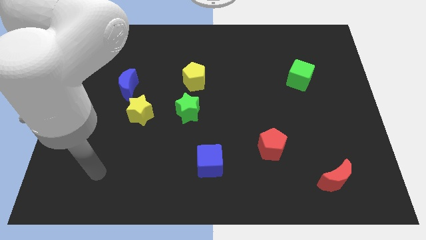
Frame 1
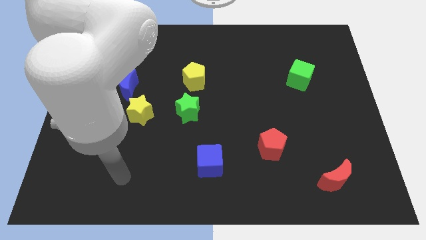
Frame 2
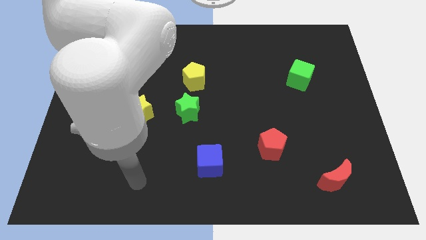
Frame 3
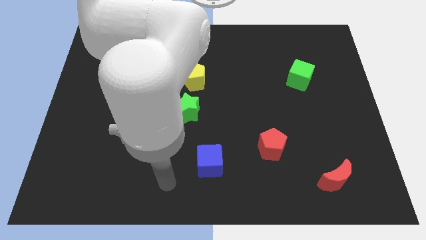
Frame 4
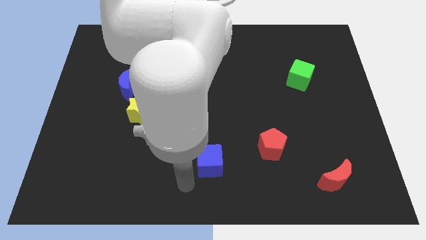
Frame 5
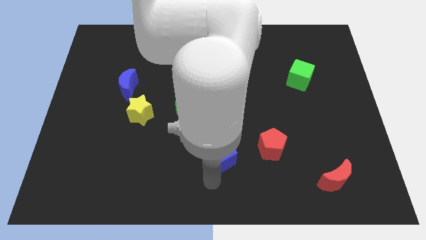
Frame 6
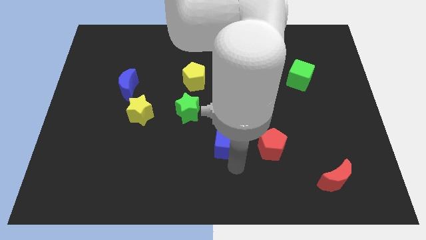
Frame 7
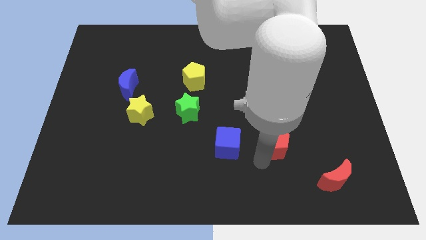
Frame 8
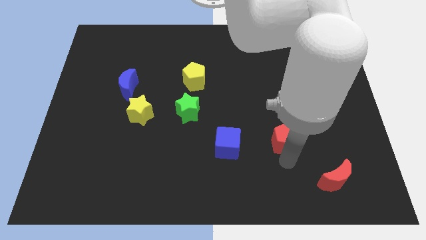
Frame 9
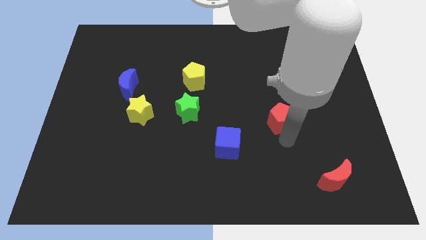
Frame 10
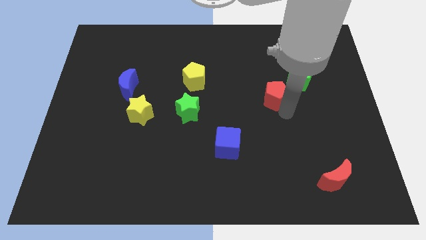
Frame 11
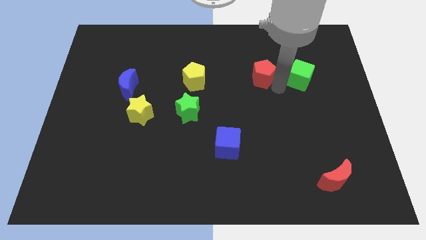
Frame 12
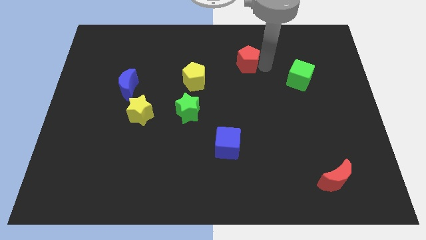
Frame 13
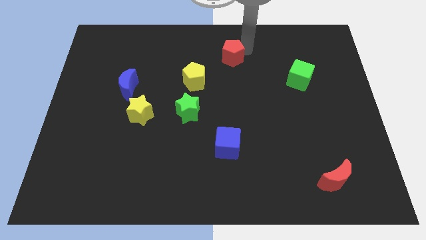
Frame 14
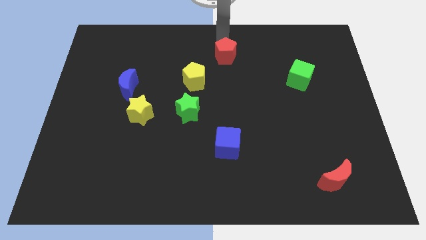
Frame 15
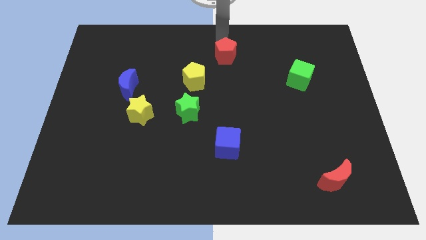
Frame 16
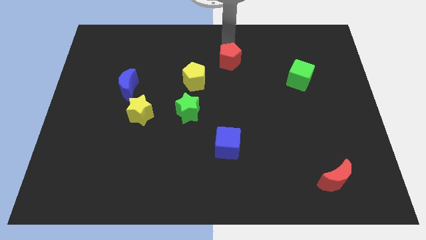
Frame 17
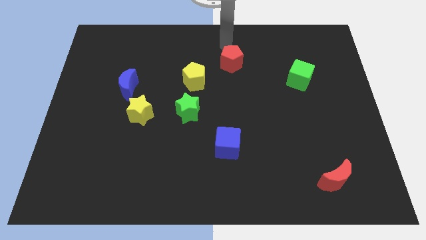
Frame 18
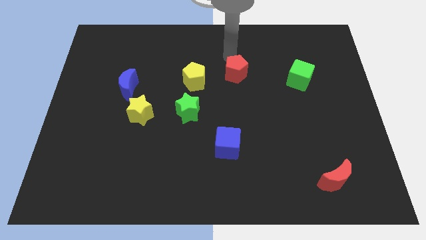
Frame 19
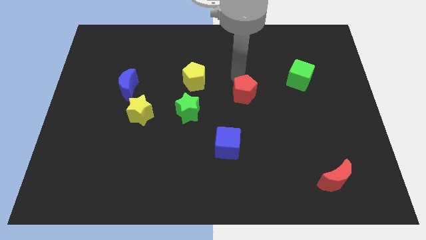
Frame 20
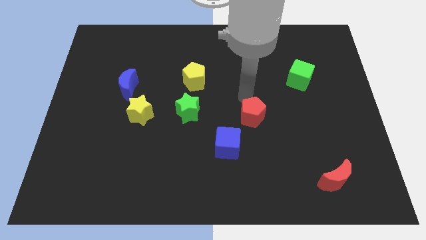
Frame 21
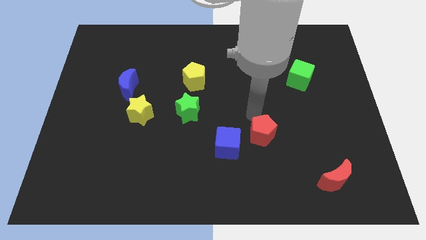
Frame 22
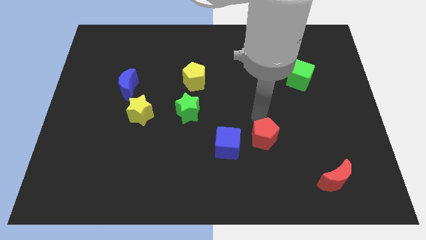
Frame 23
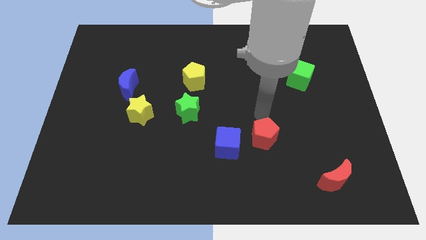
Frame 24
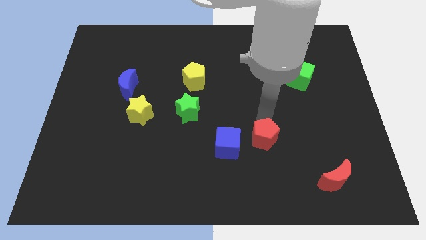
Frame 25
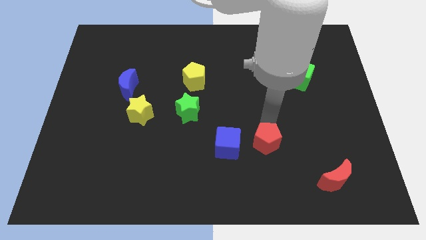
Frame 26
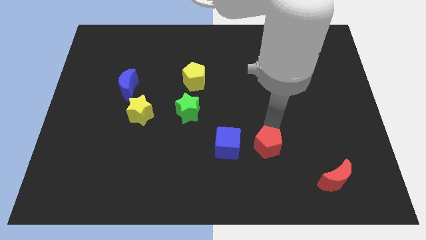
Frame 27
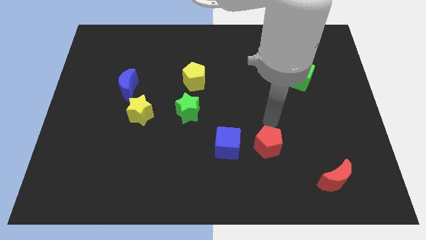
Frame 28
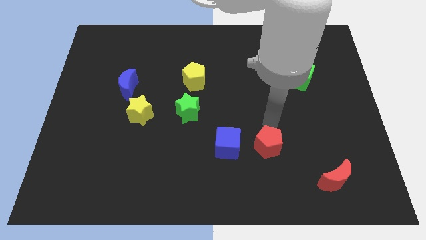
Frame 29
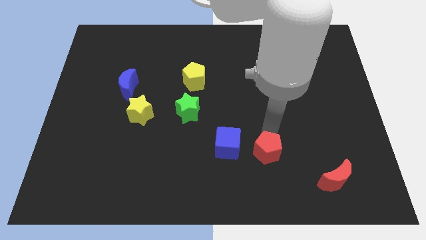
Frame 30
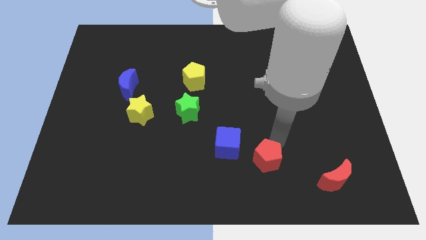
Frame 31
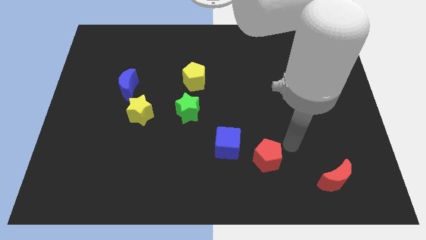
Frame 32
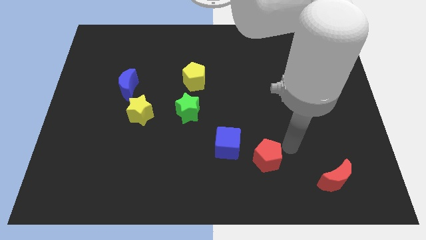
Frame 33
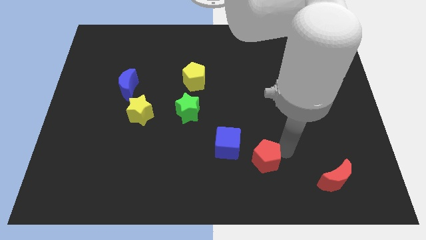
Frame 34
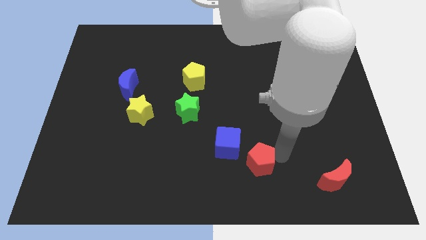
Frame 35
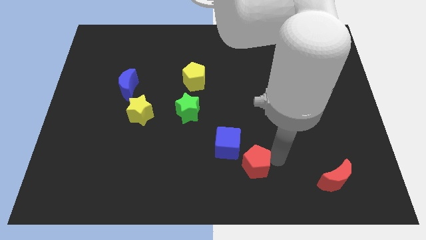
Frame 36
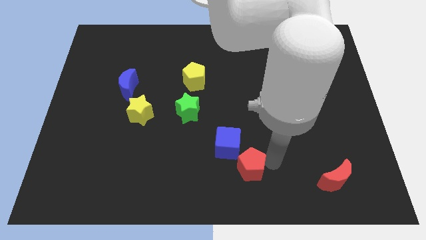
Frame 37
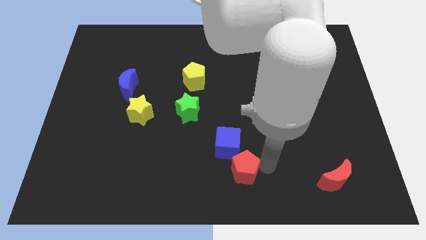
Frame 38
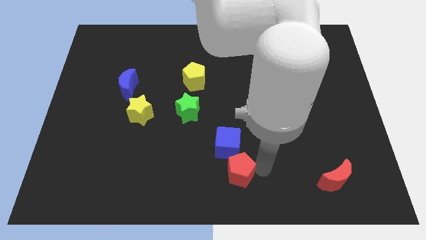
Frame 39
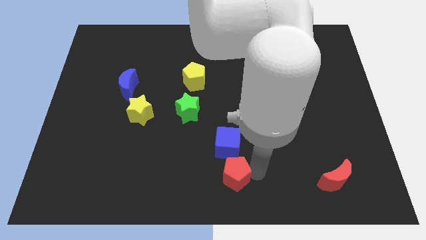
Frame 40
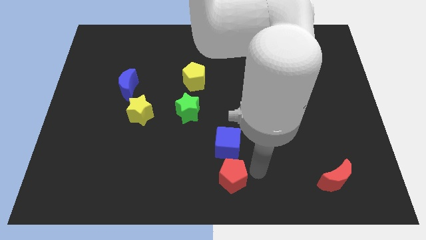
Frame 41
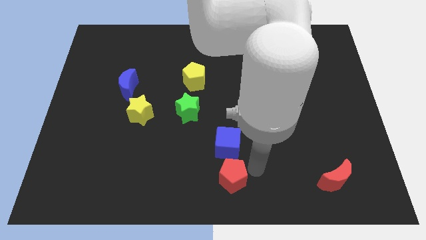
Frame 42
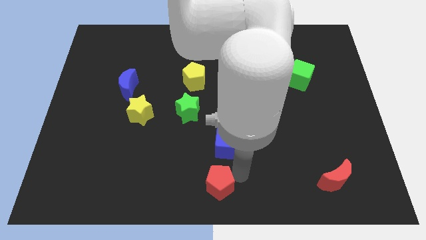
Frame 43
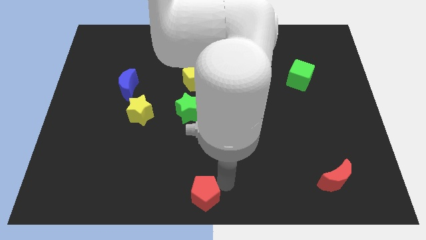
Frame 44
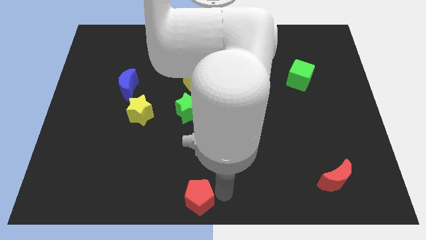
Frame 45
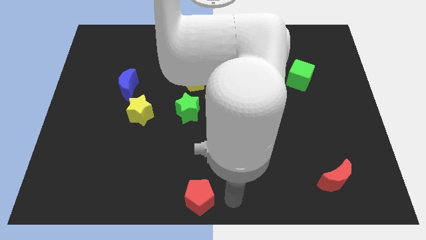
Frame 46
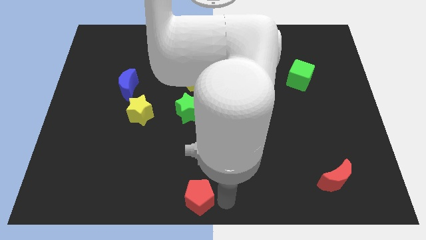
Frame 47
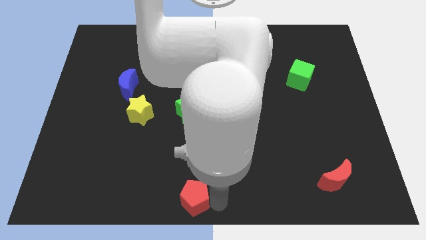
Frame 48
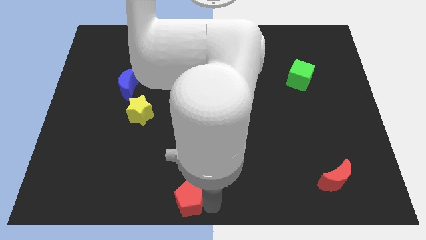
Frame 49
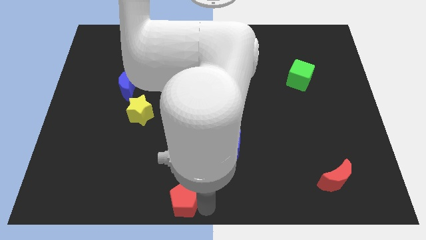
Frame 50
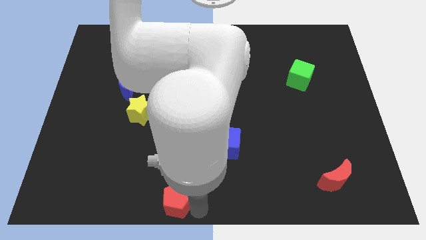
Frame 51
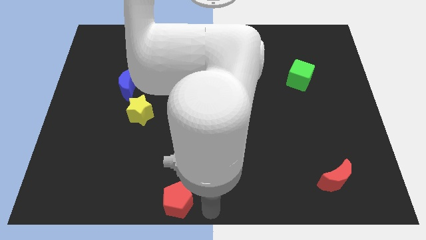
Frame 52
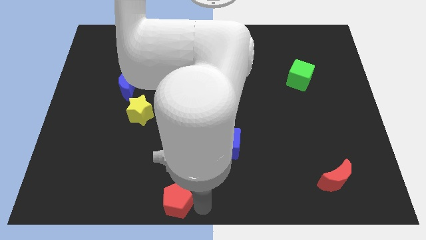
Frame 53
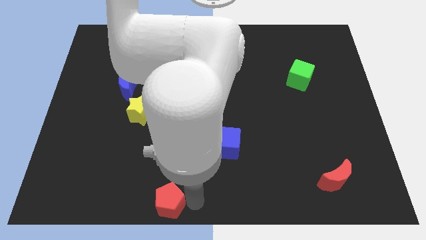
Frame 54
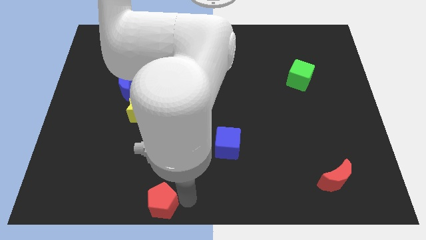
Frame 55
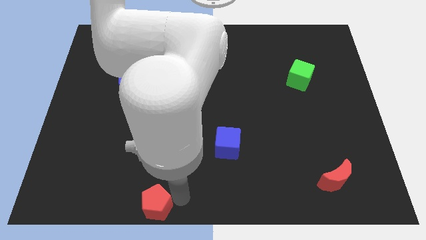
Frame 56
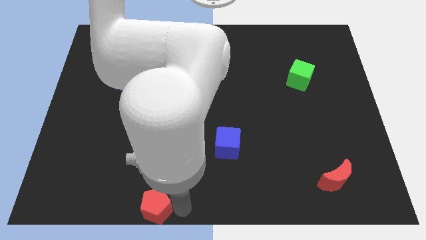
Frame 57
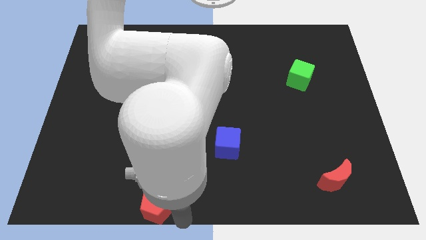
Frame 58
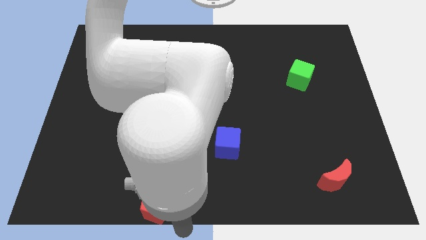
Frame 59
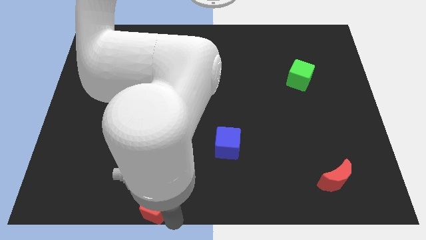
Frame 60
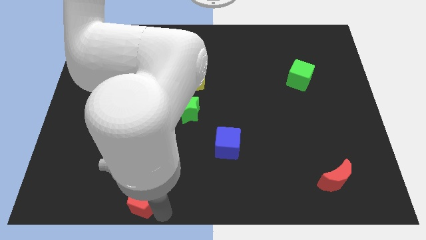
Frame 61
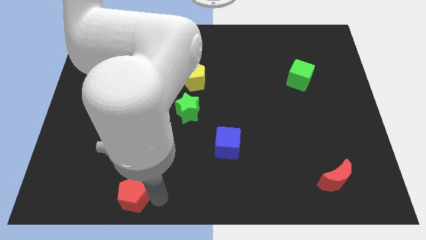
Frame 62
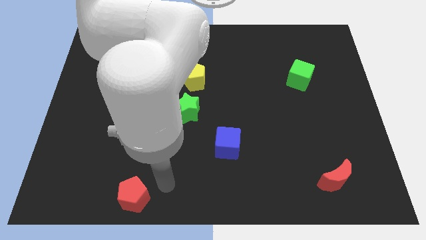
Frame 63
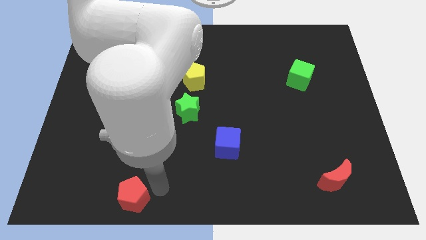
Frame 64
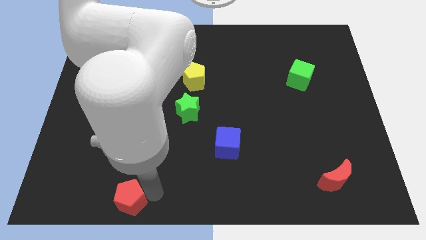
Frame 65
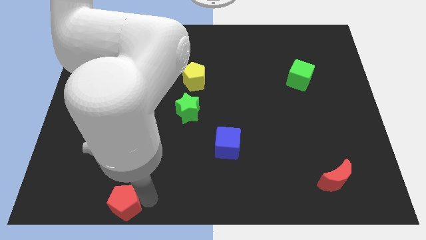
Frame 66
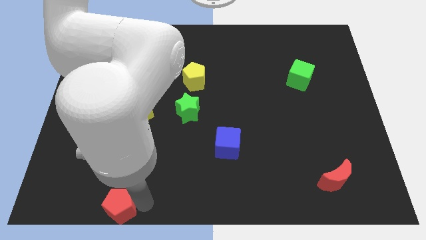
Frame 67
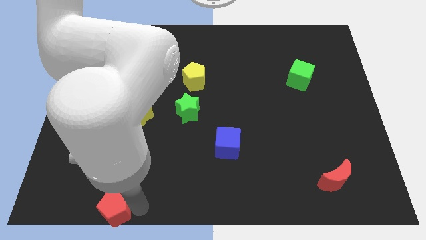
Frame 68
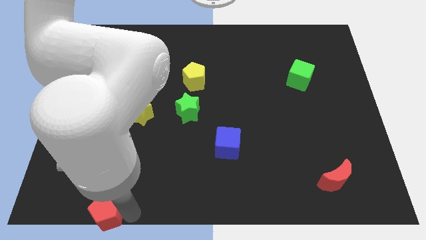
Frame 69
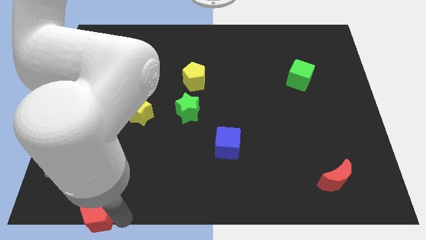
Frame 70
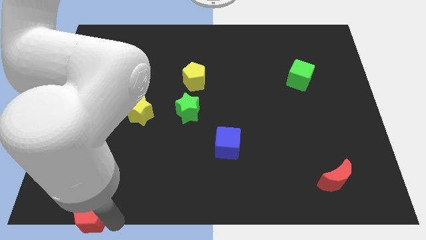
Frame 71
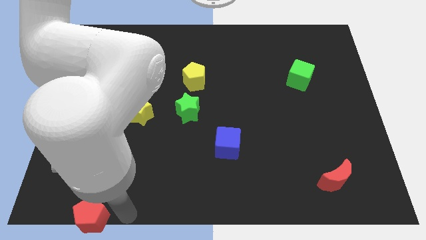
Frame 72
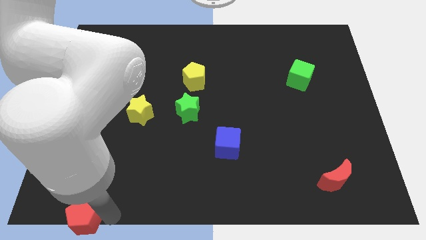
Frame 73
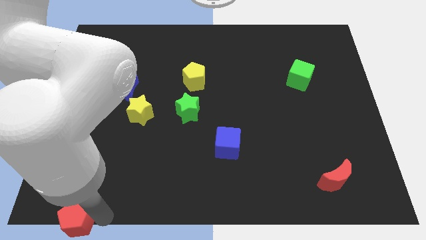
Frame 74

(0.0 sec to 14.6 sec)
move the red pentagon to the bottom left of the board
